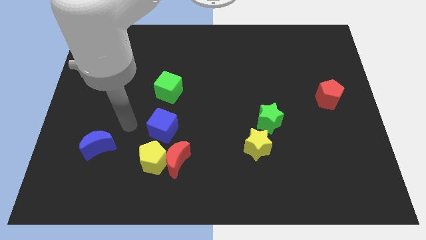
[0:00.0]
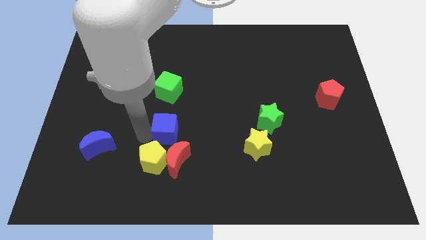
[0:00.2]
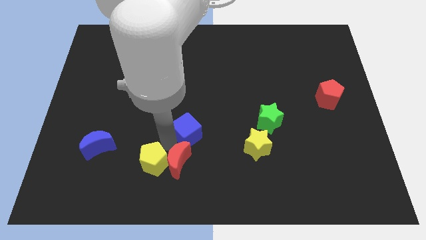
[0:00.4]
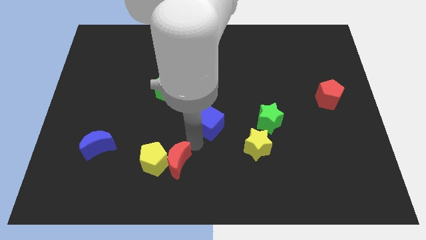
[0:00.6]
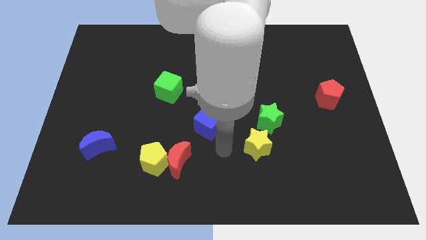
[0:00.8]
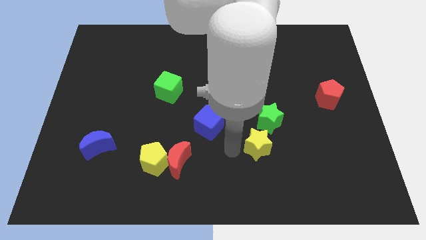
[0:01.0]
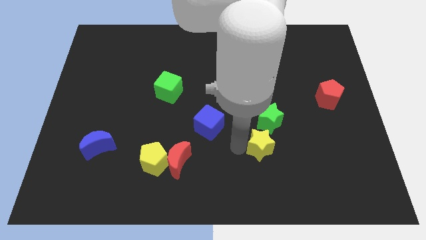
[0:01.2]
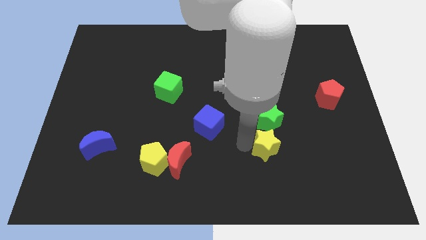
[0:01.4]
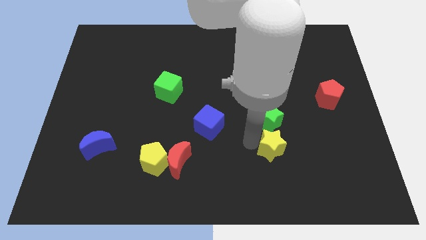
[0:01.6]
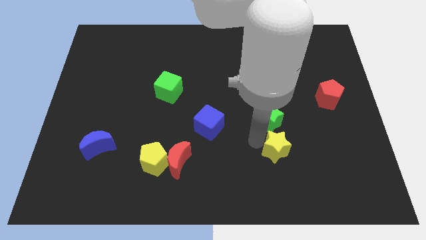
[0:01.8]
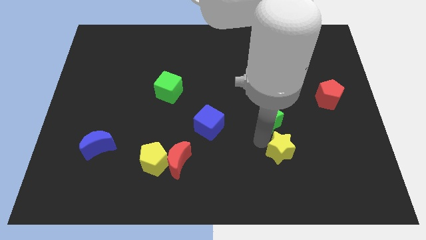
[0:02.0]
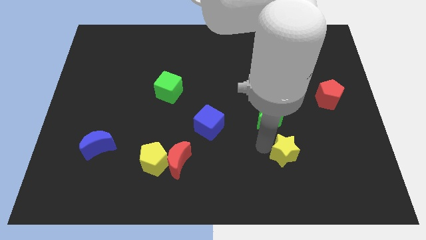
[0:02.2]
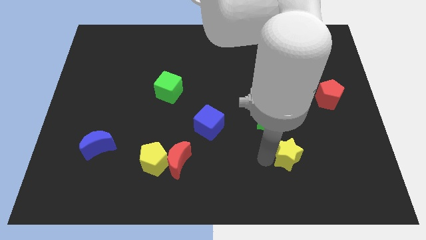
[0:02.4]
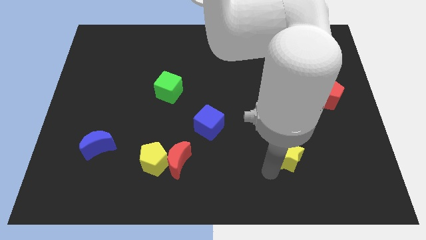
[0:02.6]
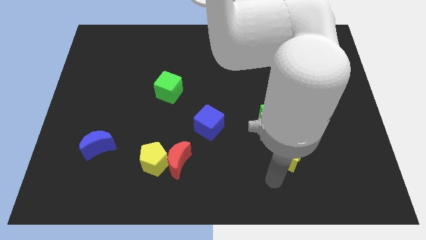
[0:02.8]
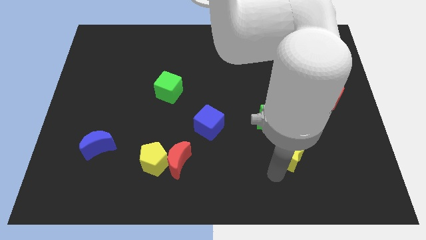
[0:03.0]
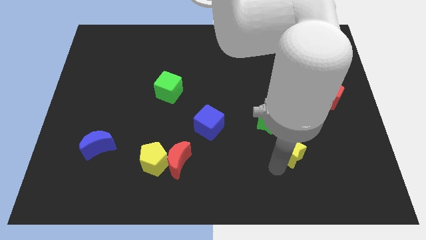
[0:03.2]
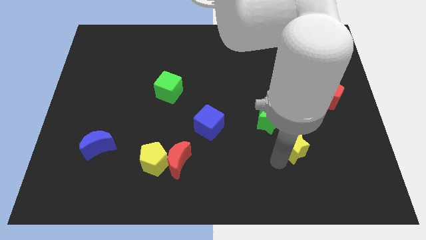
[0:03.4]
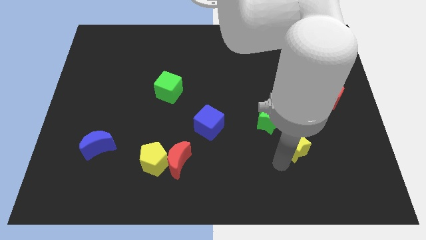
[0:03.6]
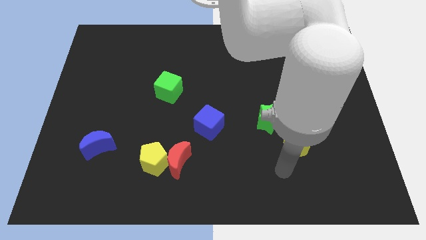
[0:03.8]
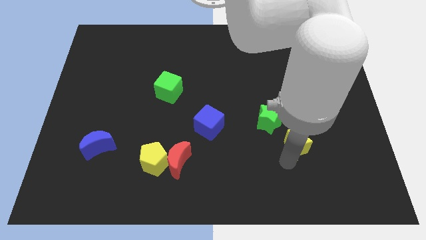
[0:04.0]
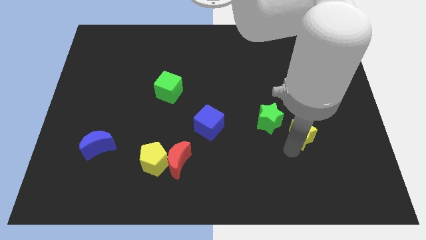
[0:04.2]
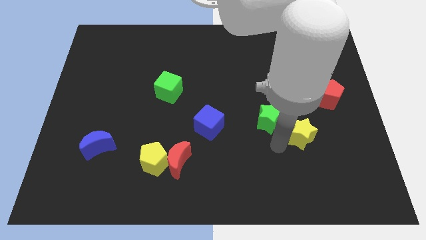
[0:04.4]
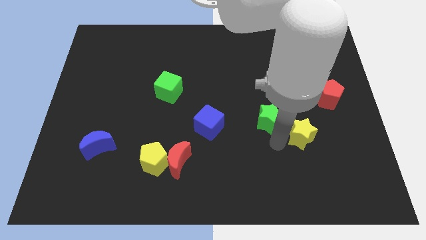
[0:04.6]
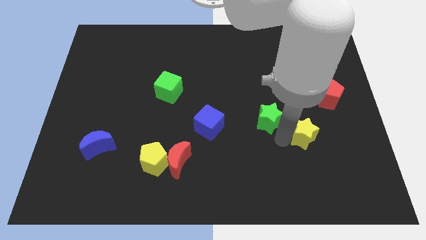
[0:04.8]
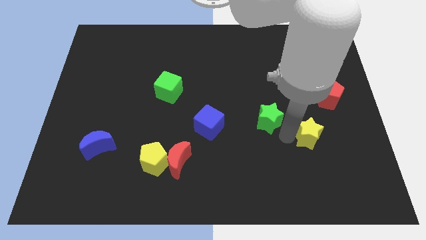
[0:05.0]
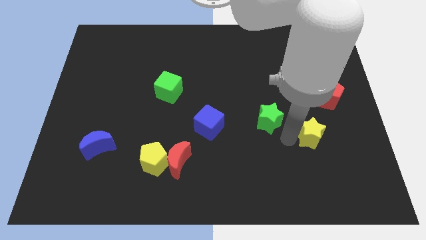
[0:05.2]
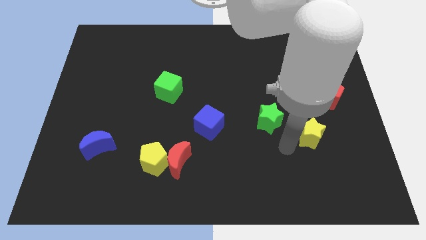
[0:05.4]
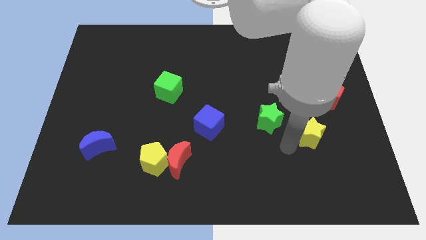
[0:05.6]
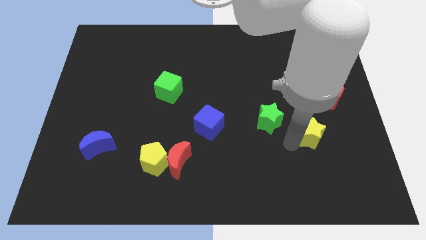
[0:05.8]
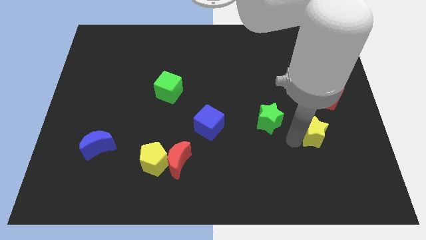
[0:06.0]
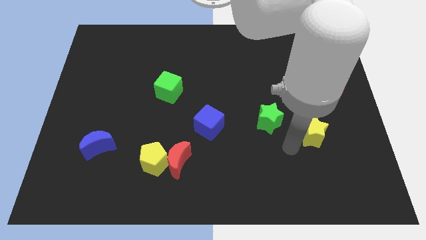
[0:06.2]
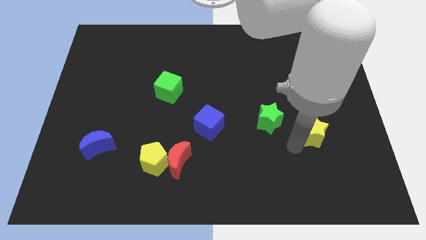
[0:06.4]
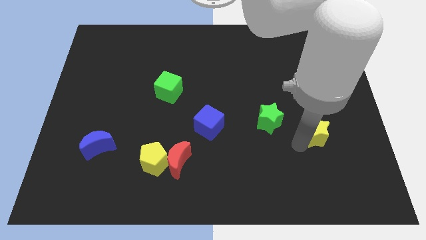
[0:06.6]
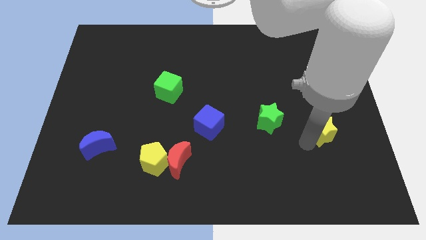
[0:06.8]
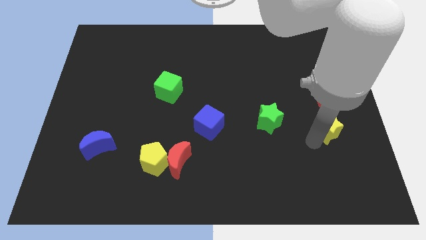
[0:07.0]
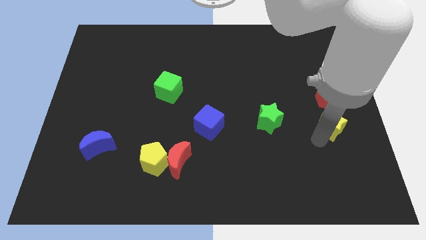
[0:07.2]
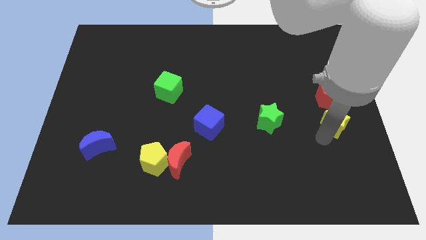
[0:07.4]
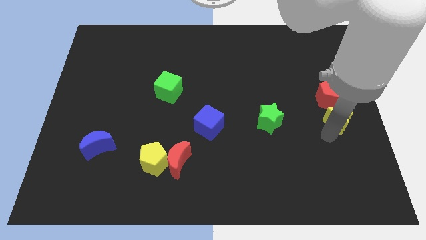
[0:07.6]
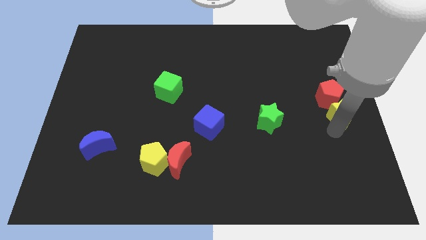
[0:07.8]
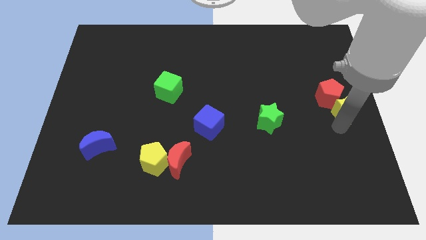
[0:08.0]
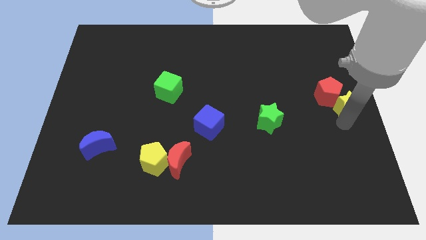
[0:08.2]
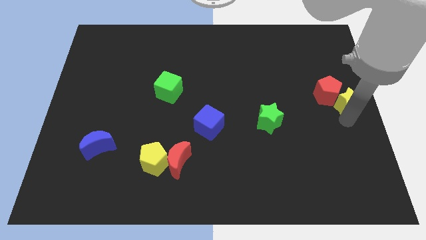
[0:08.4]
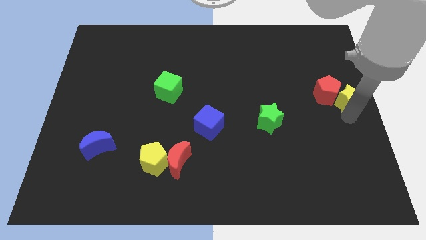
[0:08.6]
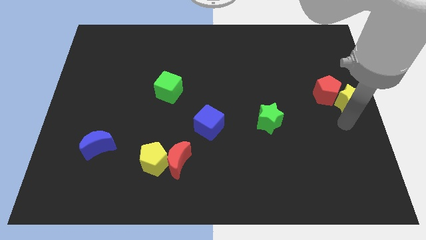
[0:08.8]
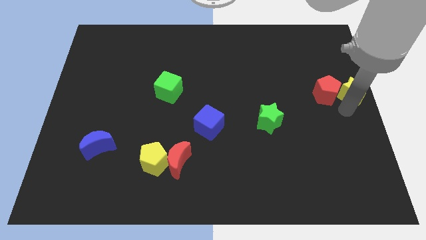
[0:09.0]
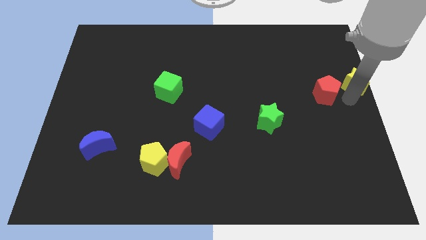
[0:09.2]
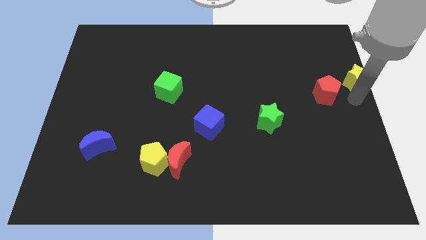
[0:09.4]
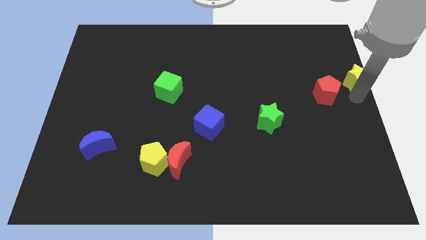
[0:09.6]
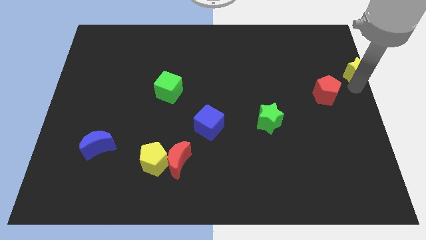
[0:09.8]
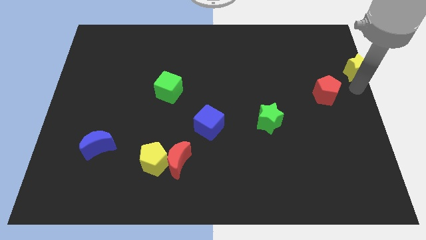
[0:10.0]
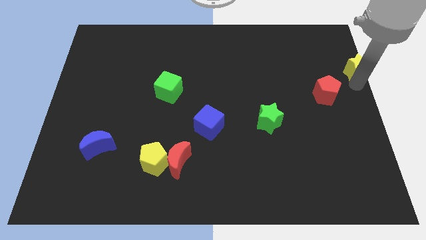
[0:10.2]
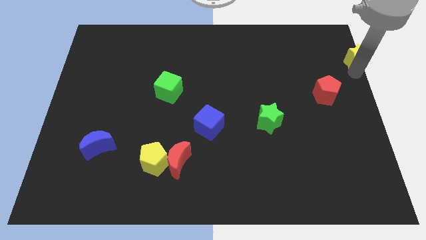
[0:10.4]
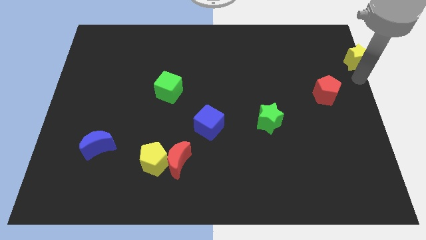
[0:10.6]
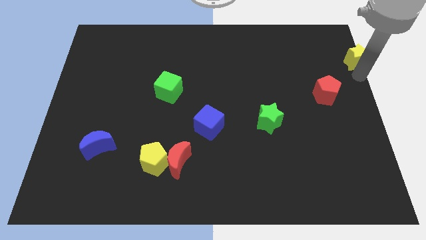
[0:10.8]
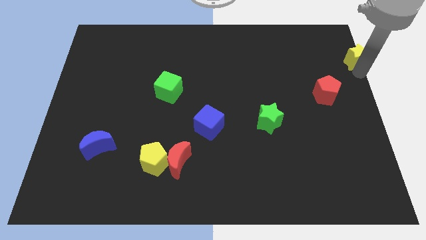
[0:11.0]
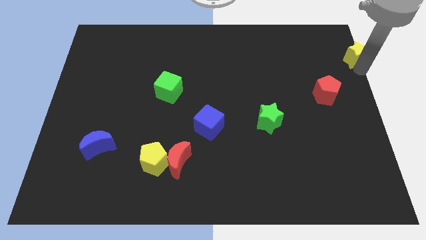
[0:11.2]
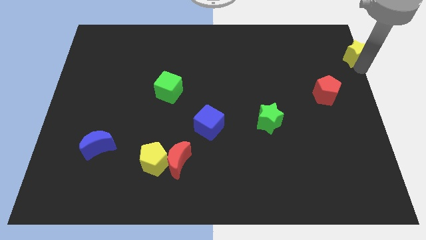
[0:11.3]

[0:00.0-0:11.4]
push the yellow star to the top right corner

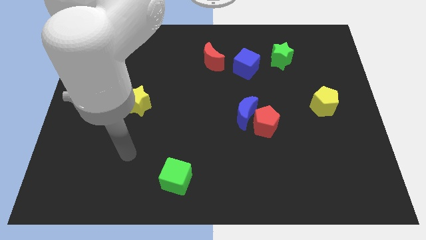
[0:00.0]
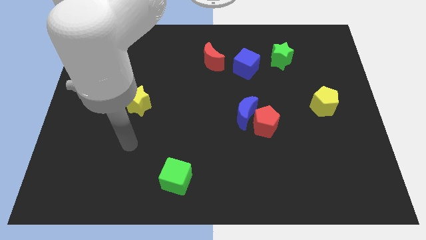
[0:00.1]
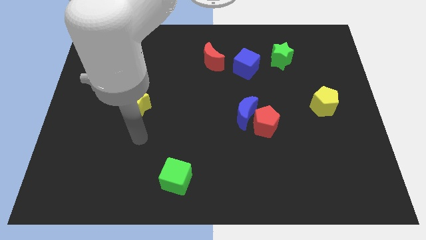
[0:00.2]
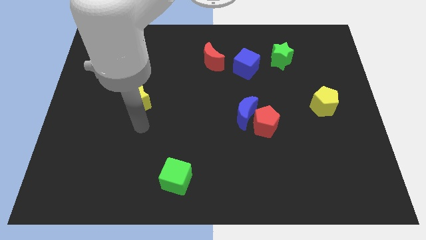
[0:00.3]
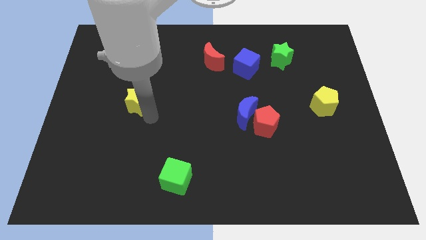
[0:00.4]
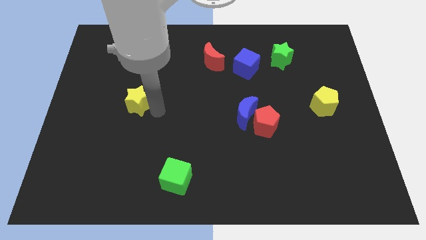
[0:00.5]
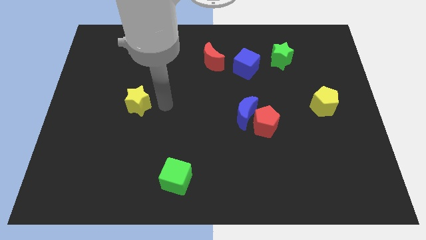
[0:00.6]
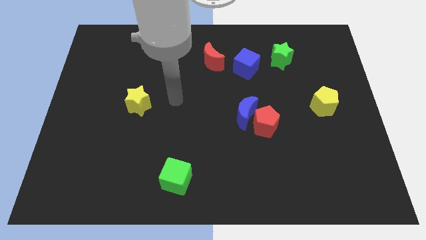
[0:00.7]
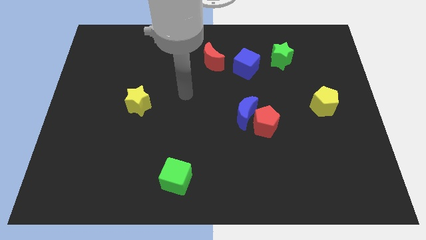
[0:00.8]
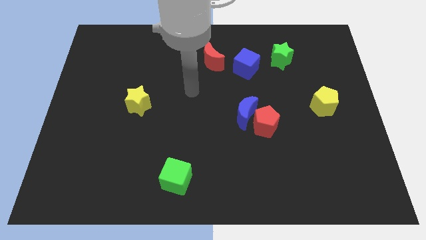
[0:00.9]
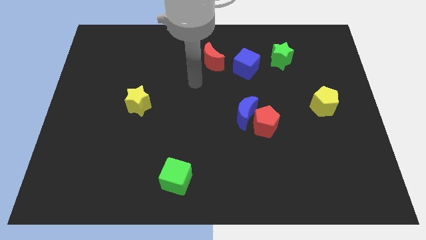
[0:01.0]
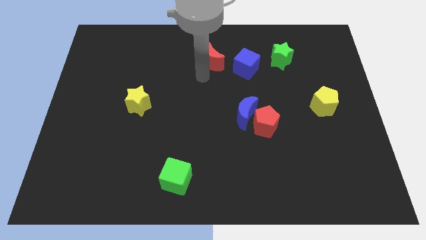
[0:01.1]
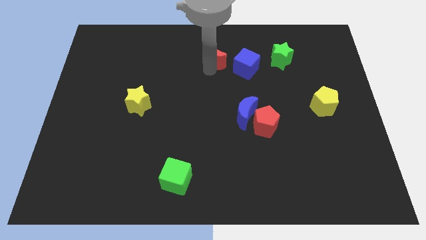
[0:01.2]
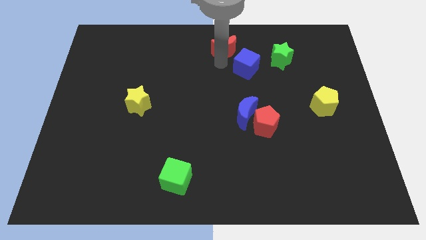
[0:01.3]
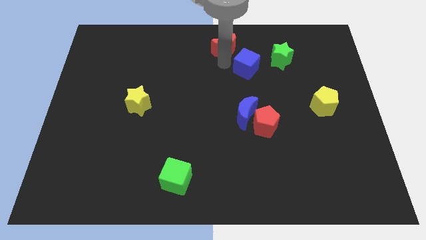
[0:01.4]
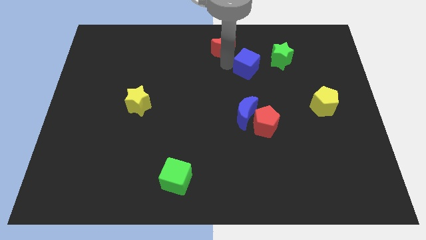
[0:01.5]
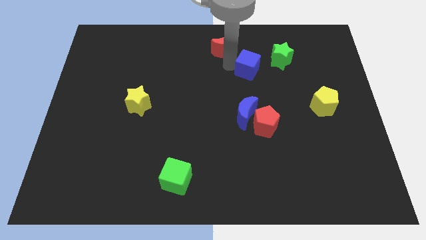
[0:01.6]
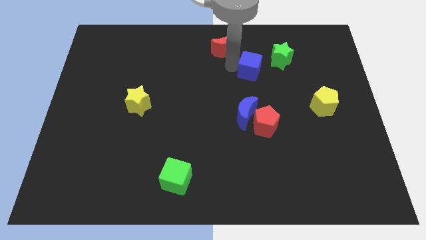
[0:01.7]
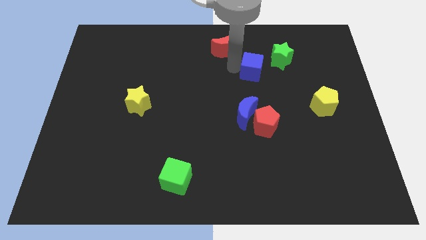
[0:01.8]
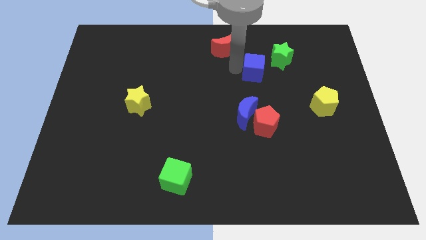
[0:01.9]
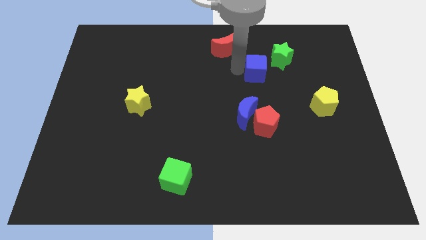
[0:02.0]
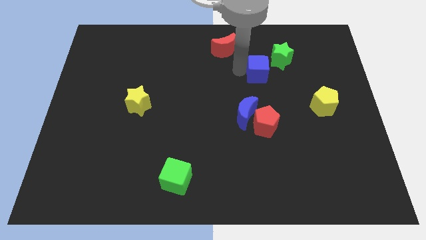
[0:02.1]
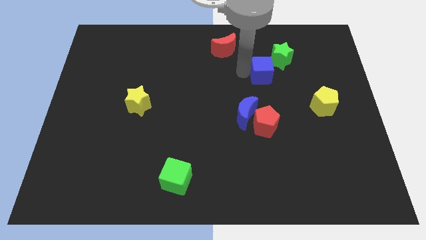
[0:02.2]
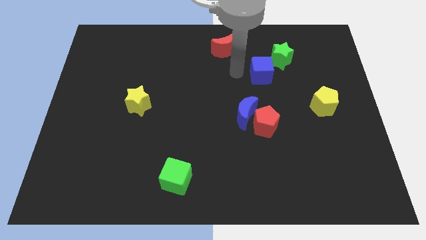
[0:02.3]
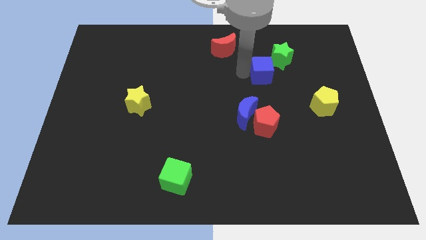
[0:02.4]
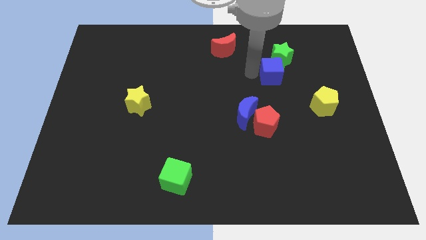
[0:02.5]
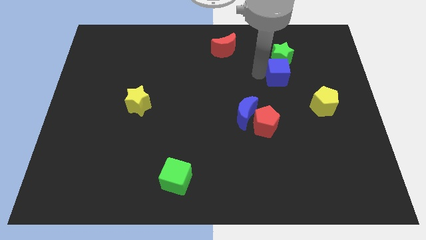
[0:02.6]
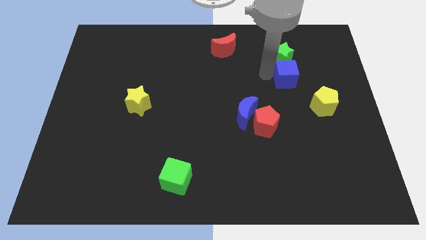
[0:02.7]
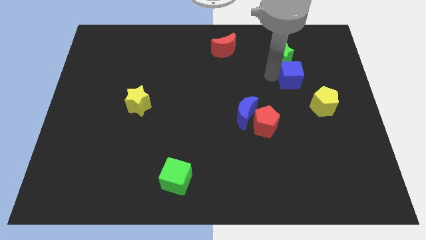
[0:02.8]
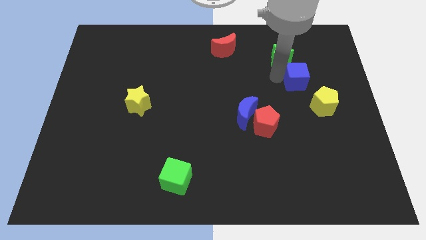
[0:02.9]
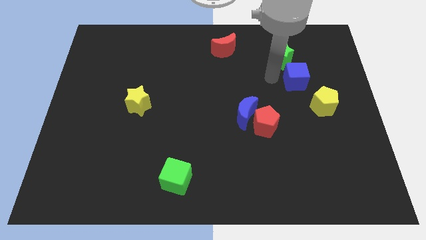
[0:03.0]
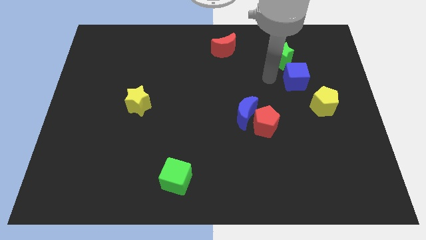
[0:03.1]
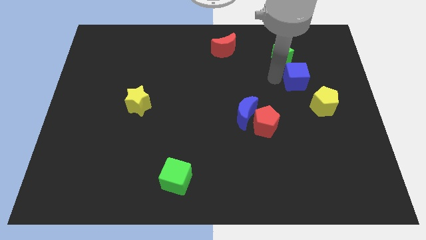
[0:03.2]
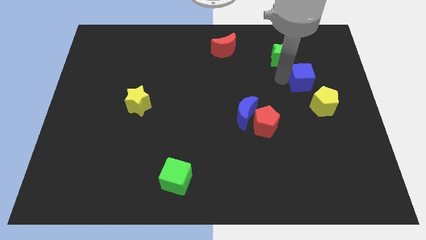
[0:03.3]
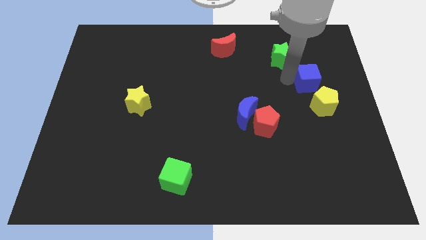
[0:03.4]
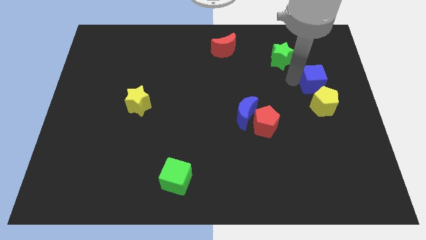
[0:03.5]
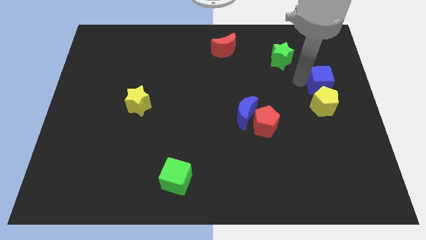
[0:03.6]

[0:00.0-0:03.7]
move the blue cube to the right side
